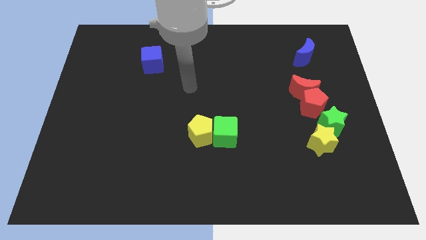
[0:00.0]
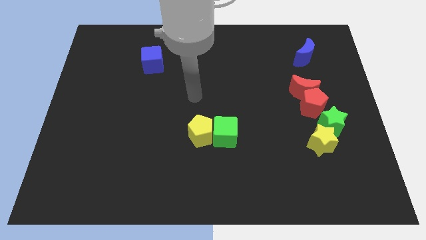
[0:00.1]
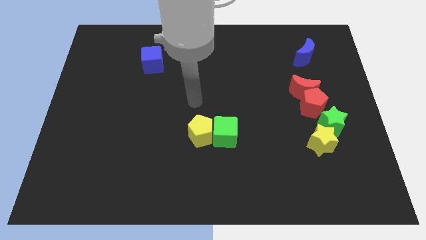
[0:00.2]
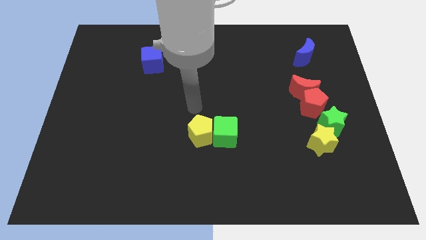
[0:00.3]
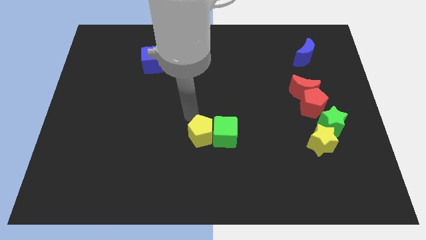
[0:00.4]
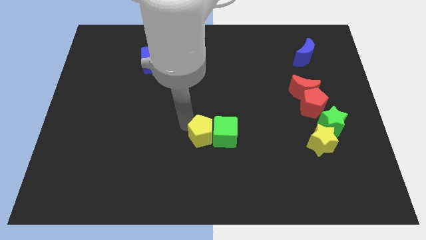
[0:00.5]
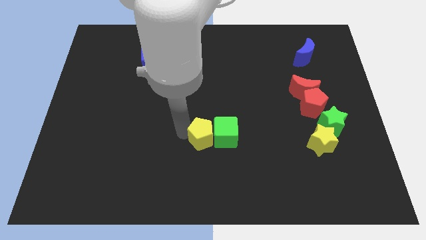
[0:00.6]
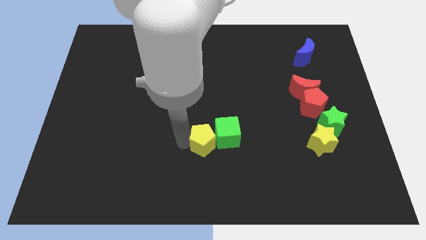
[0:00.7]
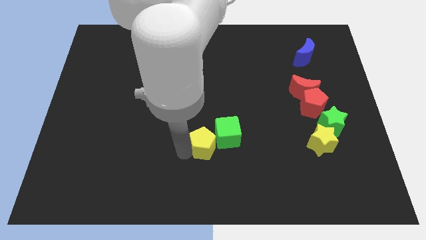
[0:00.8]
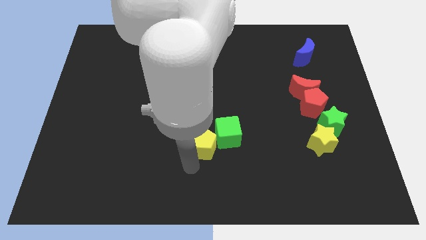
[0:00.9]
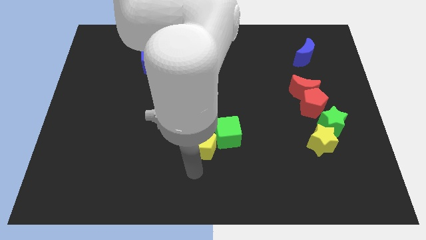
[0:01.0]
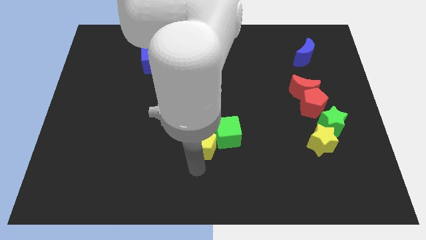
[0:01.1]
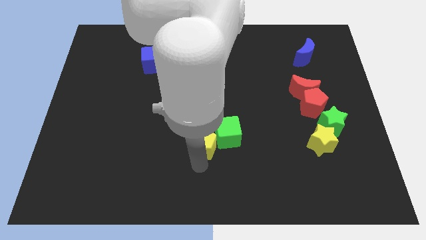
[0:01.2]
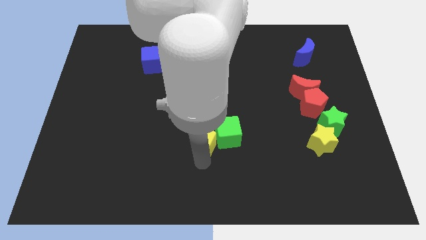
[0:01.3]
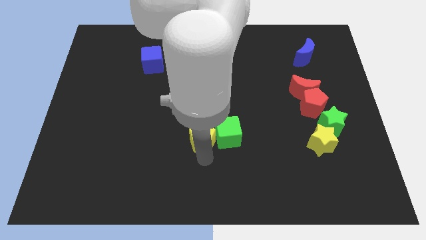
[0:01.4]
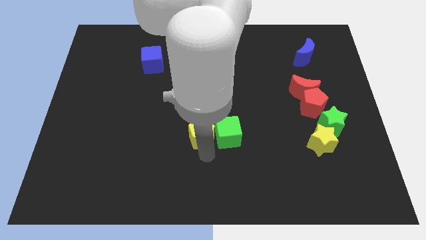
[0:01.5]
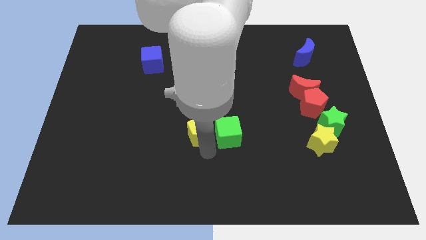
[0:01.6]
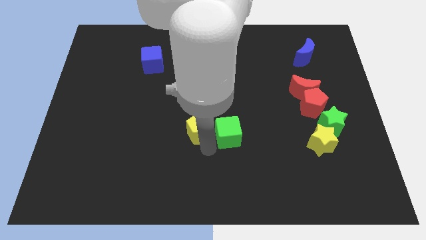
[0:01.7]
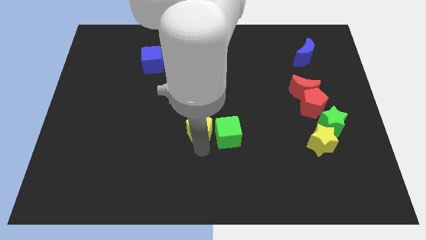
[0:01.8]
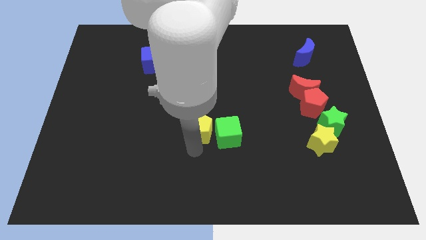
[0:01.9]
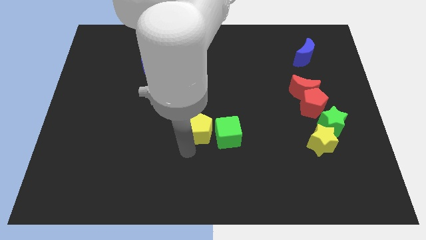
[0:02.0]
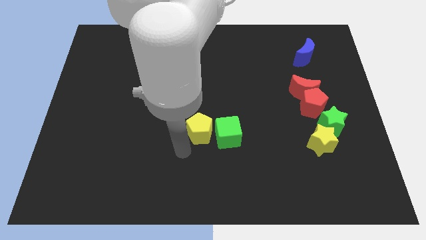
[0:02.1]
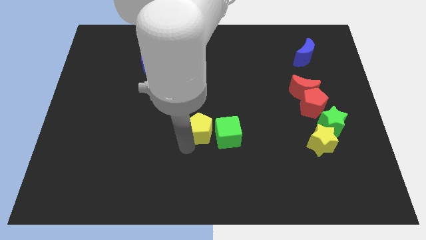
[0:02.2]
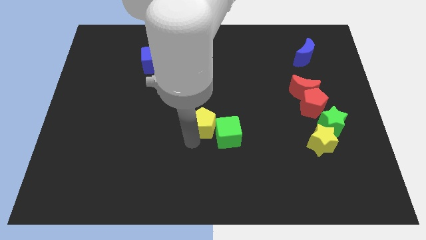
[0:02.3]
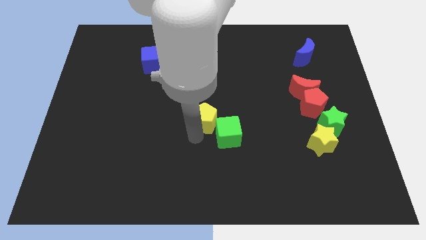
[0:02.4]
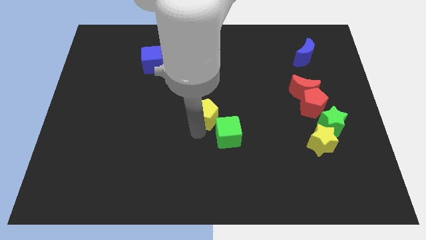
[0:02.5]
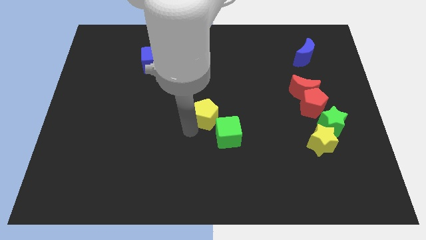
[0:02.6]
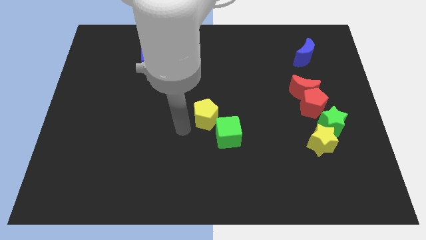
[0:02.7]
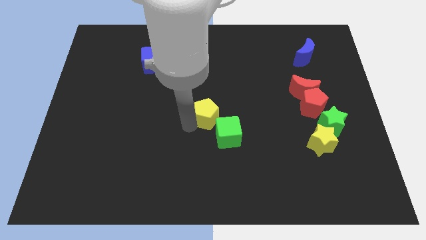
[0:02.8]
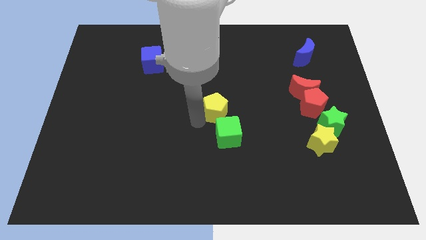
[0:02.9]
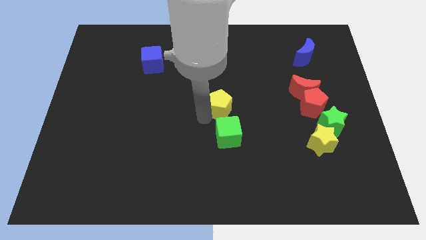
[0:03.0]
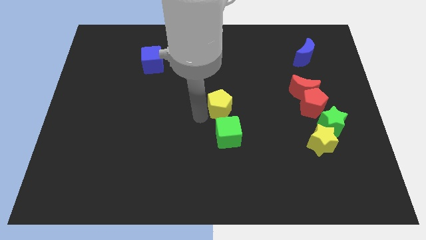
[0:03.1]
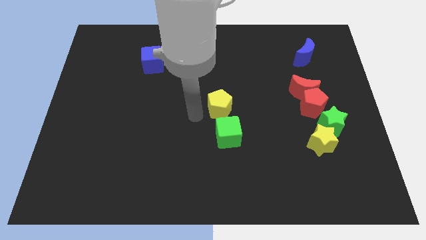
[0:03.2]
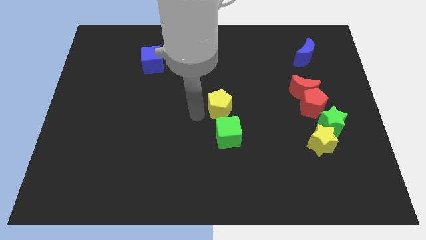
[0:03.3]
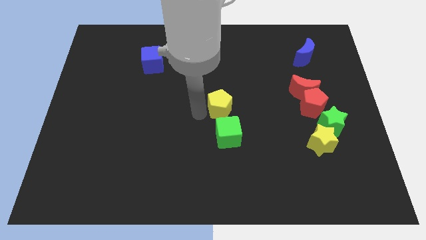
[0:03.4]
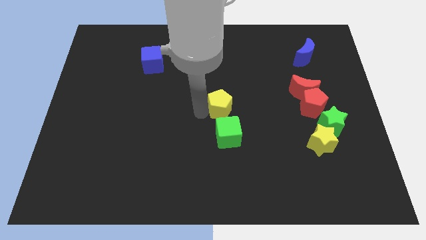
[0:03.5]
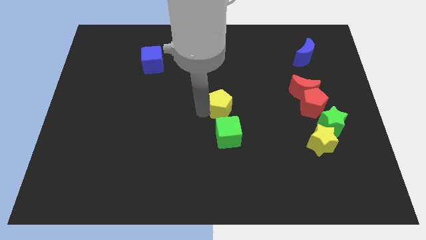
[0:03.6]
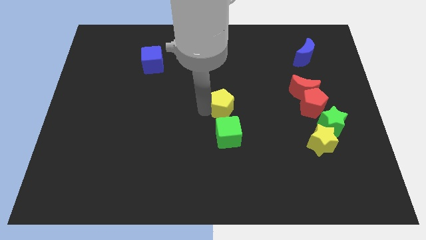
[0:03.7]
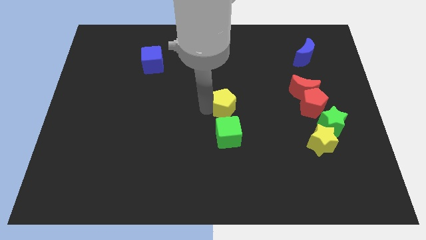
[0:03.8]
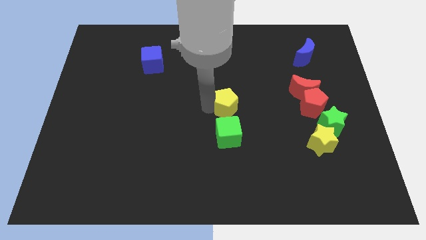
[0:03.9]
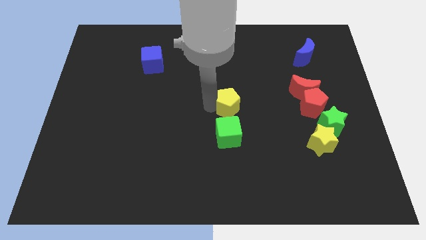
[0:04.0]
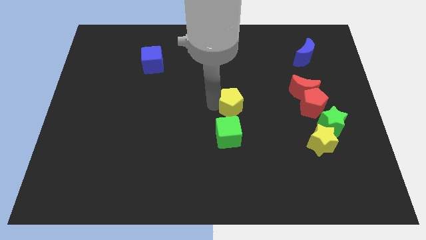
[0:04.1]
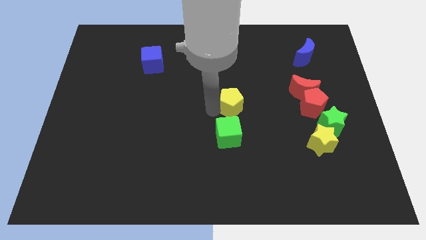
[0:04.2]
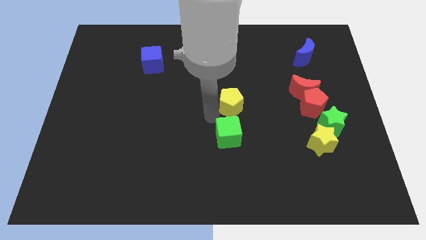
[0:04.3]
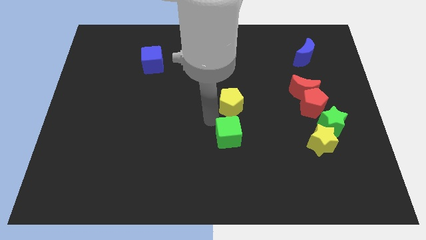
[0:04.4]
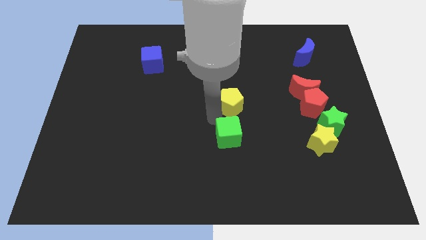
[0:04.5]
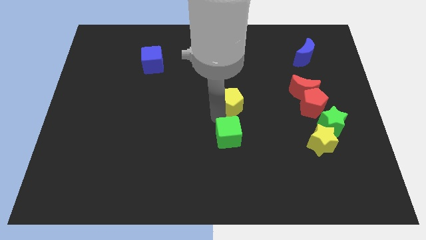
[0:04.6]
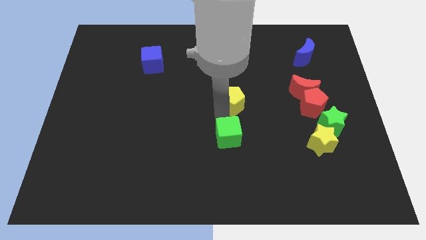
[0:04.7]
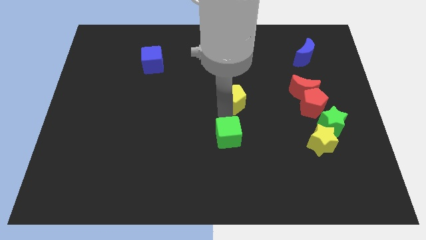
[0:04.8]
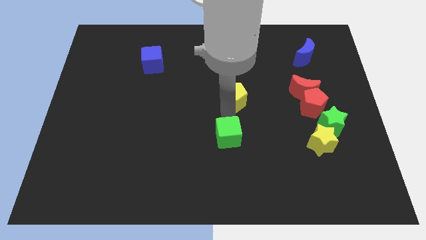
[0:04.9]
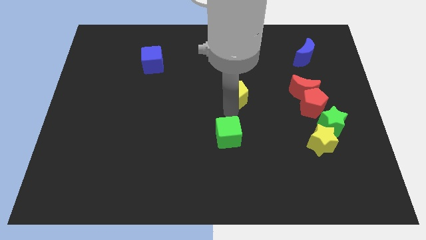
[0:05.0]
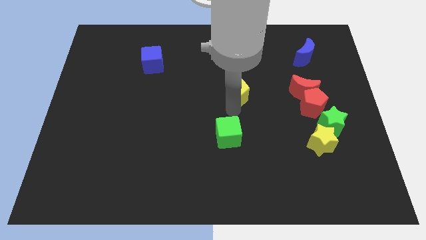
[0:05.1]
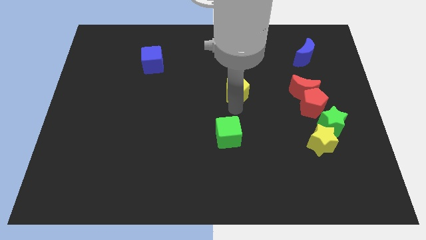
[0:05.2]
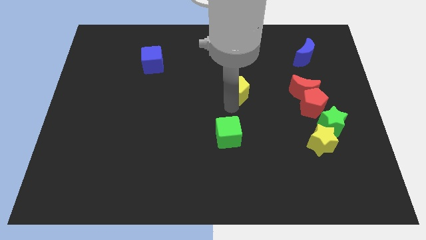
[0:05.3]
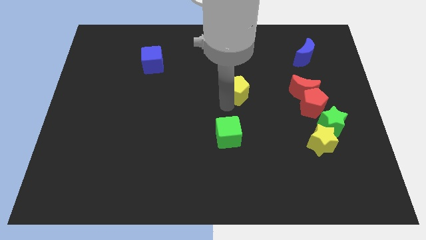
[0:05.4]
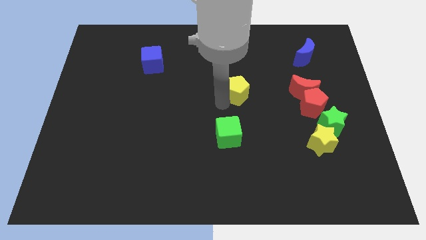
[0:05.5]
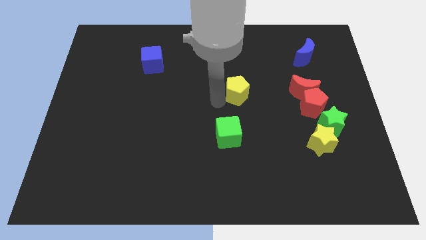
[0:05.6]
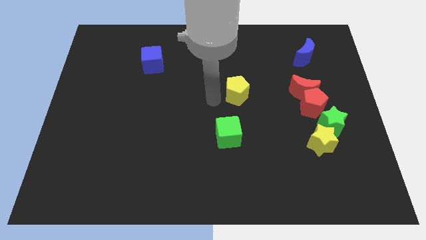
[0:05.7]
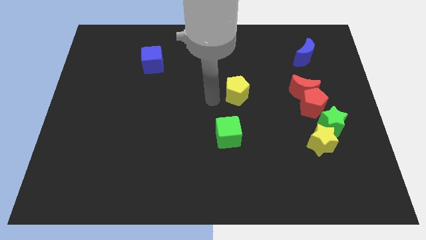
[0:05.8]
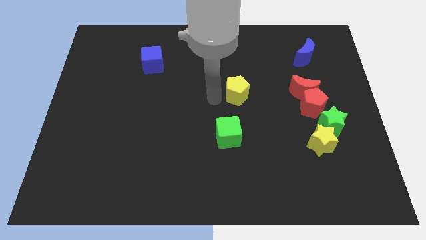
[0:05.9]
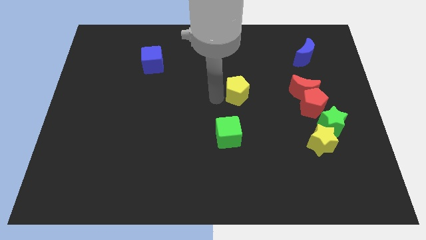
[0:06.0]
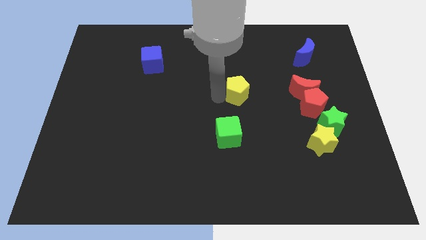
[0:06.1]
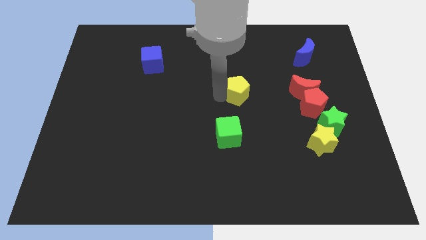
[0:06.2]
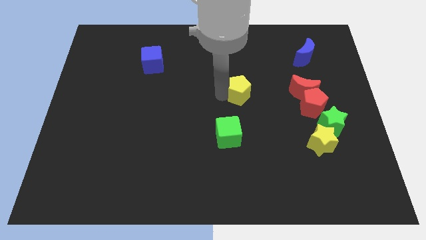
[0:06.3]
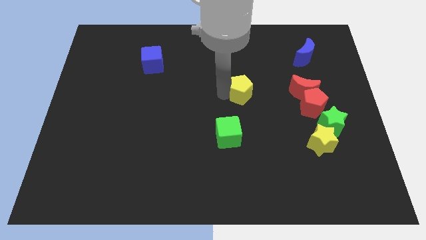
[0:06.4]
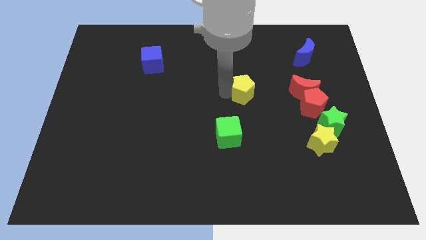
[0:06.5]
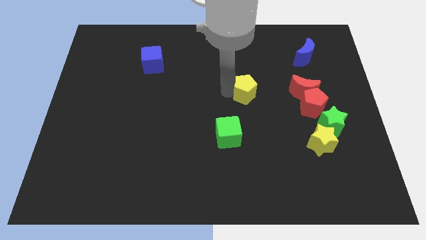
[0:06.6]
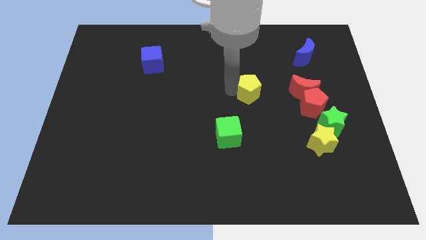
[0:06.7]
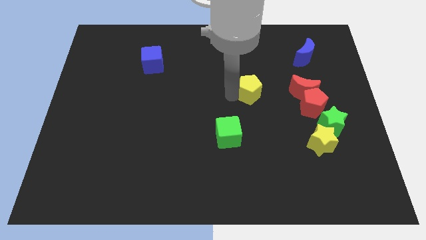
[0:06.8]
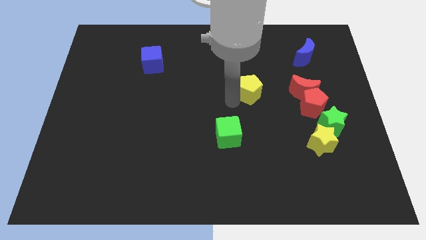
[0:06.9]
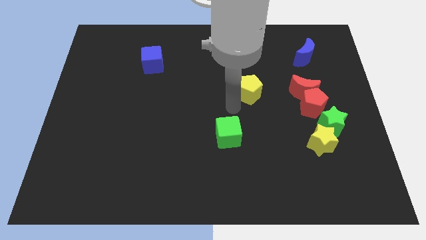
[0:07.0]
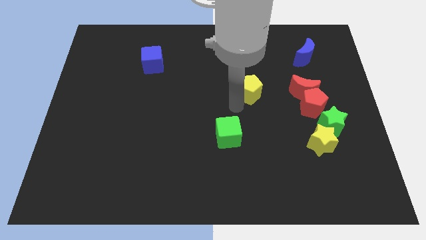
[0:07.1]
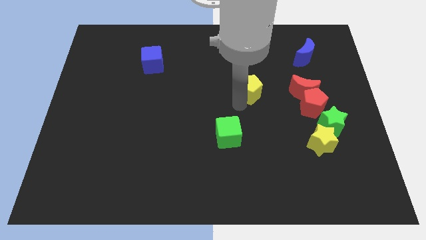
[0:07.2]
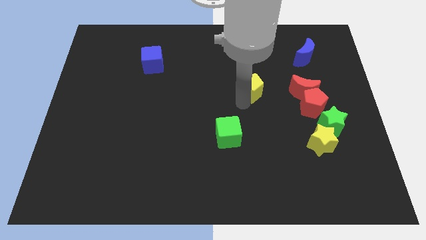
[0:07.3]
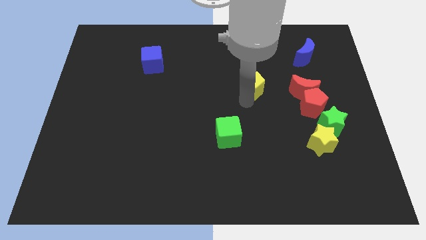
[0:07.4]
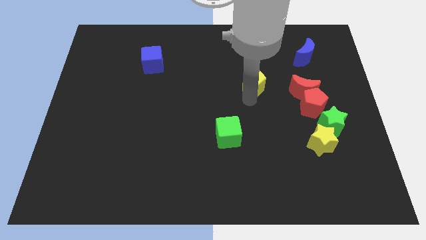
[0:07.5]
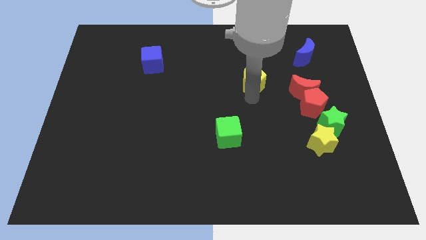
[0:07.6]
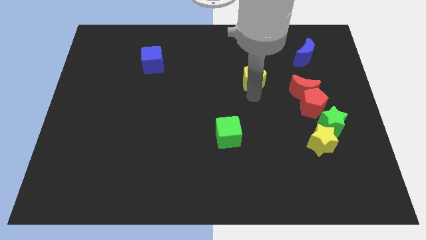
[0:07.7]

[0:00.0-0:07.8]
slide the yellow pentagon diagonally upwards and to the right

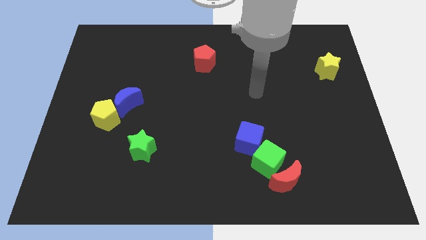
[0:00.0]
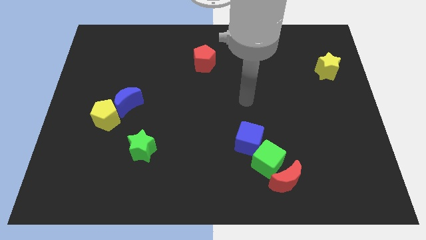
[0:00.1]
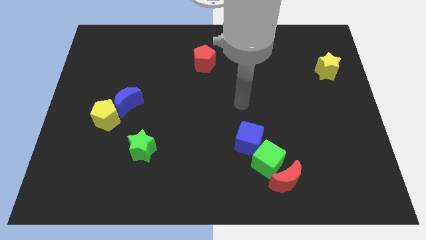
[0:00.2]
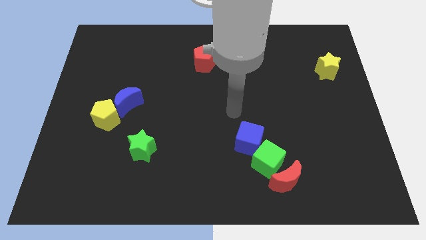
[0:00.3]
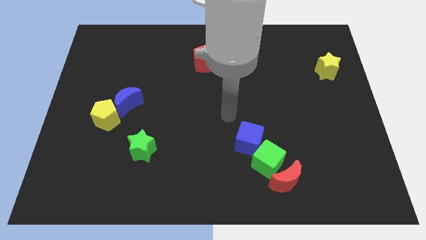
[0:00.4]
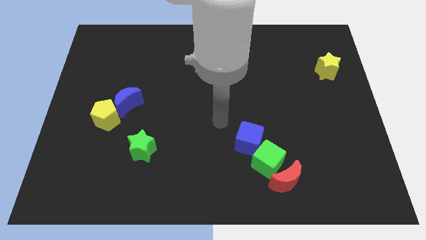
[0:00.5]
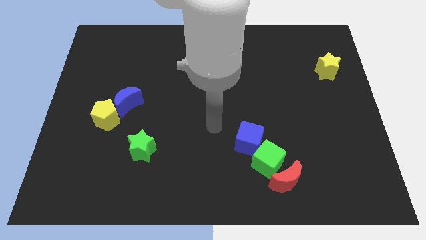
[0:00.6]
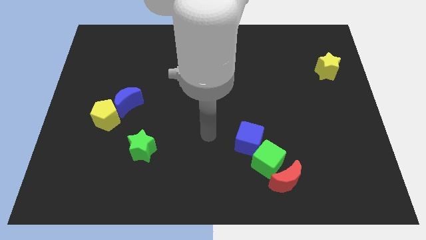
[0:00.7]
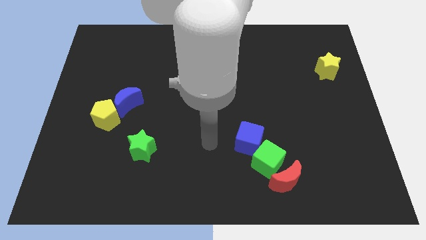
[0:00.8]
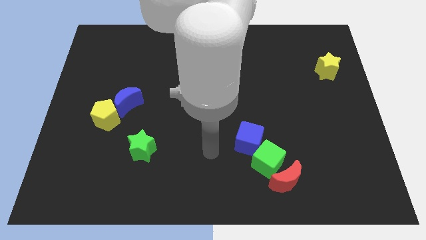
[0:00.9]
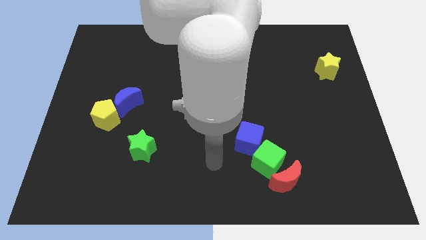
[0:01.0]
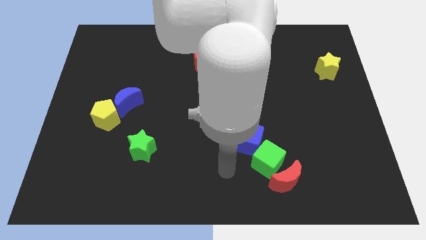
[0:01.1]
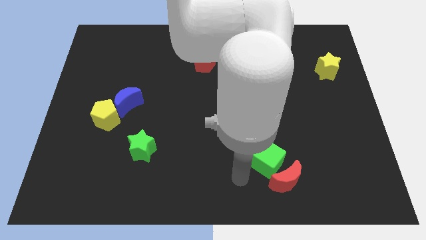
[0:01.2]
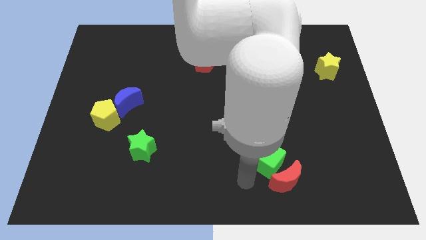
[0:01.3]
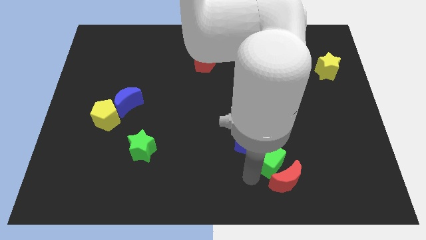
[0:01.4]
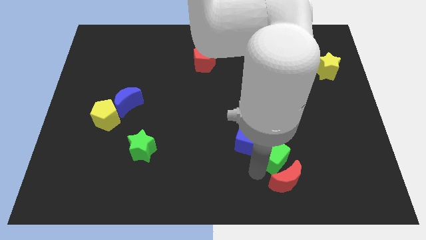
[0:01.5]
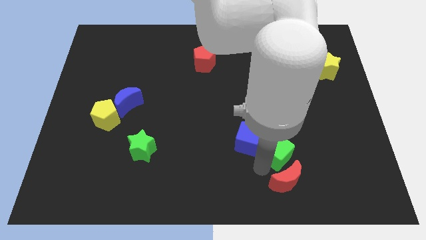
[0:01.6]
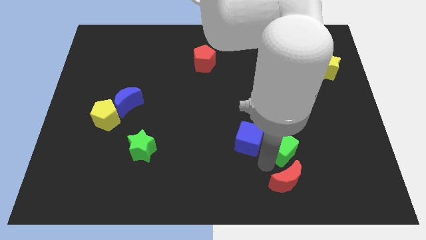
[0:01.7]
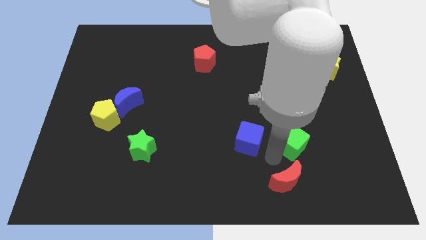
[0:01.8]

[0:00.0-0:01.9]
move the green cube a little bit up and to the right diagonally
